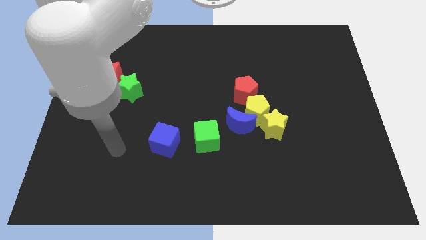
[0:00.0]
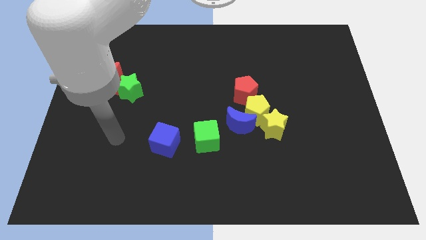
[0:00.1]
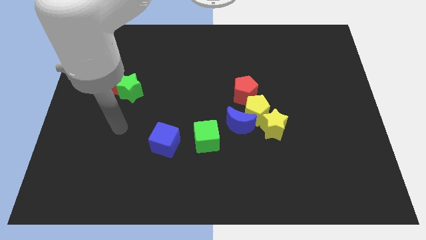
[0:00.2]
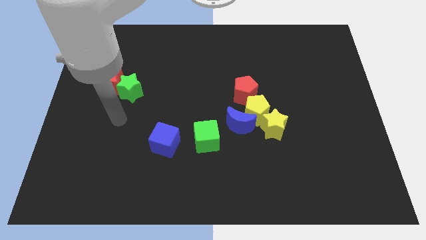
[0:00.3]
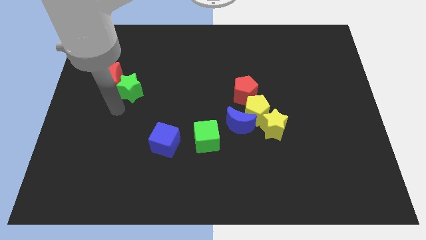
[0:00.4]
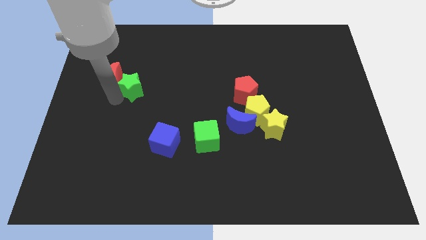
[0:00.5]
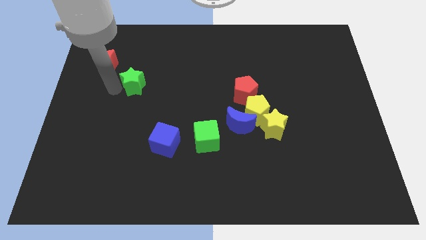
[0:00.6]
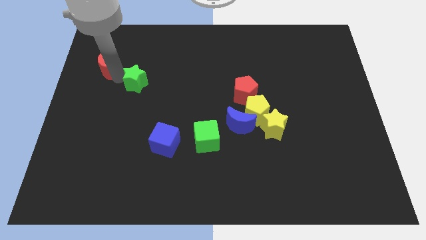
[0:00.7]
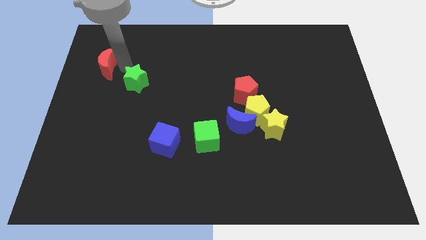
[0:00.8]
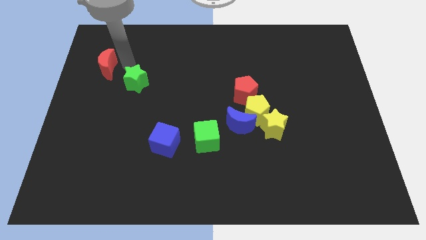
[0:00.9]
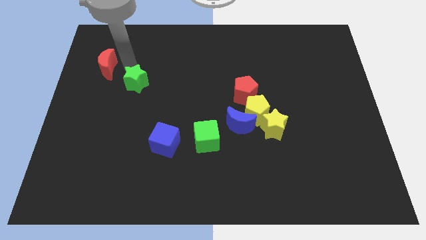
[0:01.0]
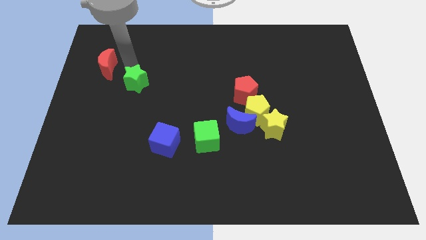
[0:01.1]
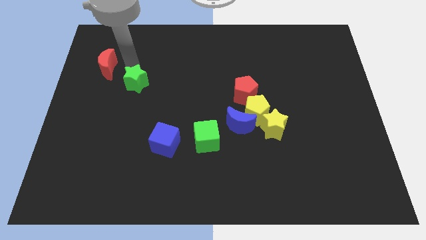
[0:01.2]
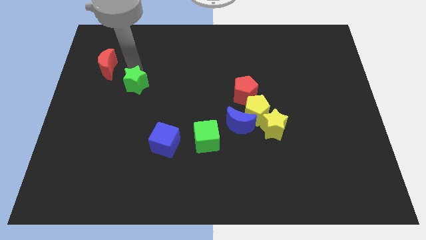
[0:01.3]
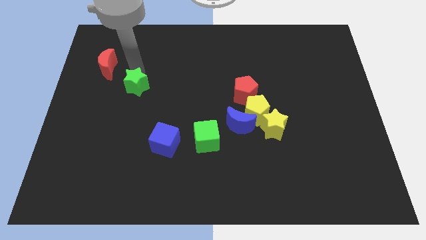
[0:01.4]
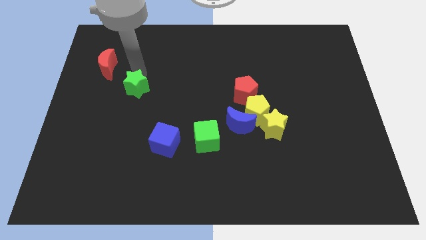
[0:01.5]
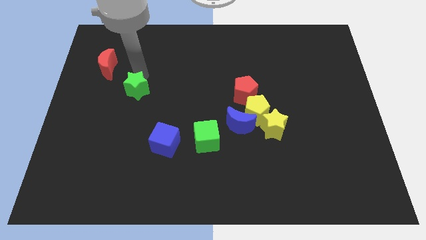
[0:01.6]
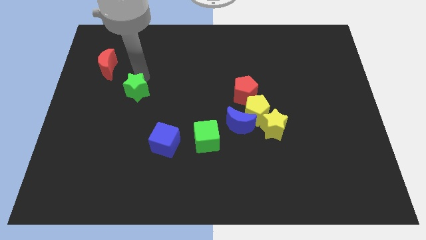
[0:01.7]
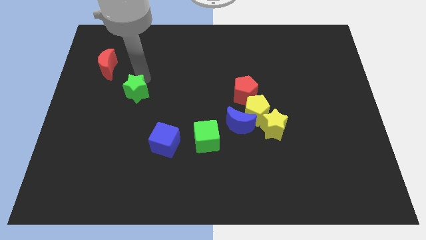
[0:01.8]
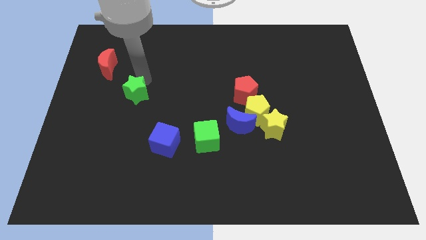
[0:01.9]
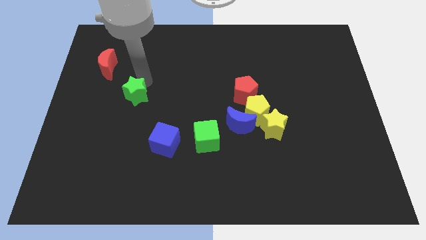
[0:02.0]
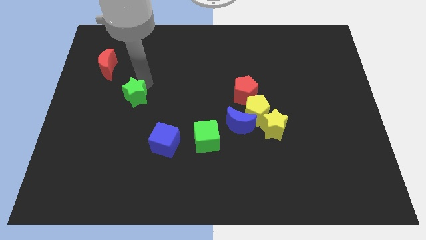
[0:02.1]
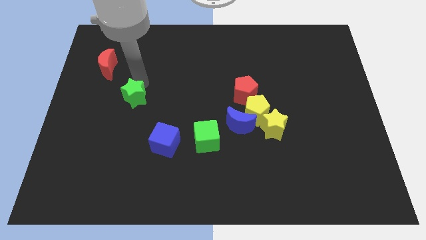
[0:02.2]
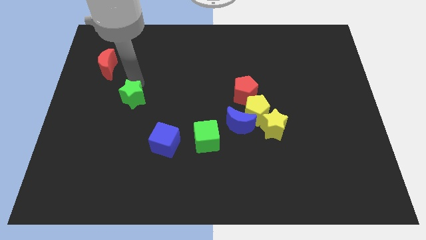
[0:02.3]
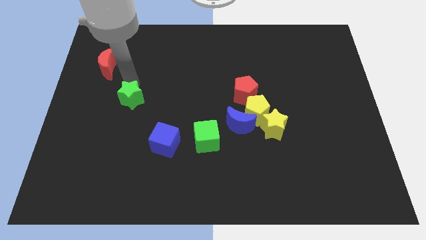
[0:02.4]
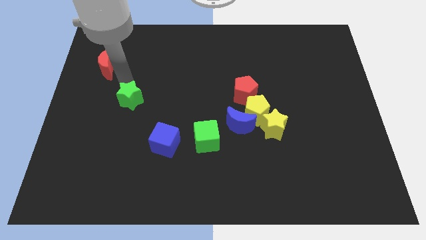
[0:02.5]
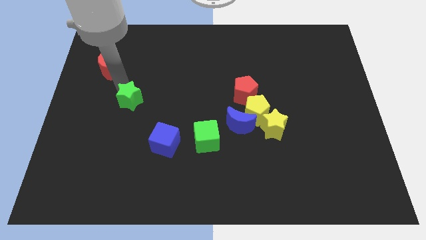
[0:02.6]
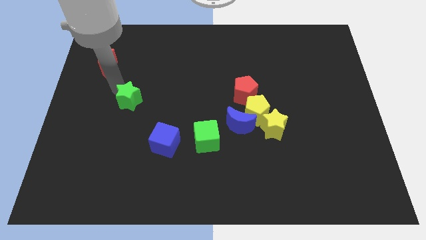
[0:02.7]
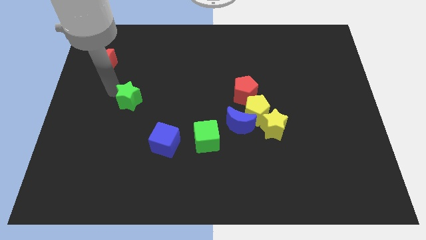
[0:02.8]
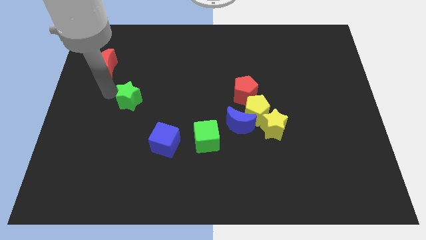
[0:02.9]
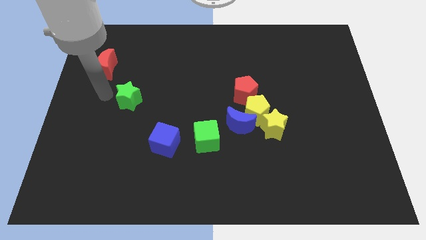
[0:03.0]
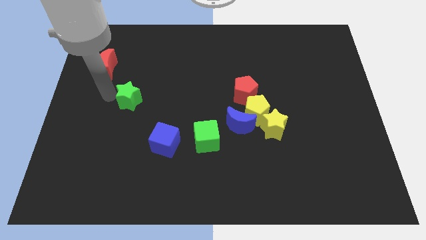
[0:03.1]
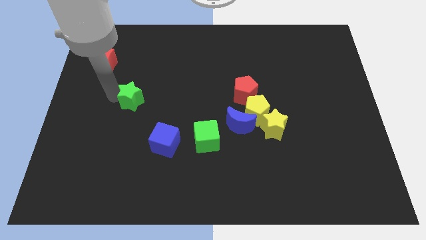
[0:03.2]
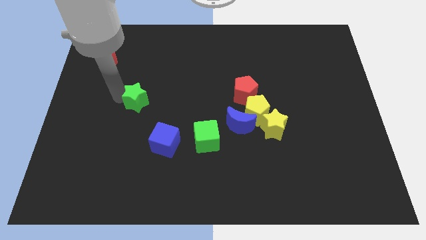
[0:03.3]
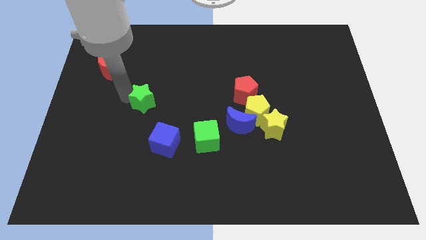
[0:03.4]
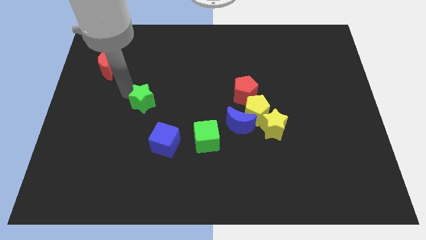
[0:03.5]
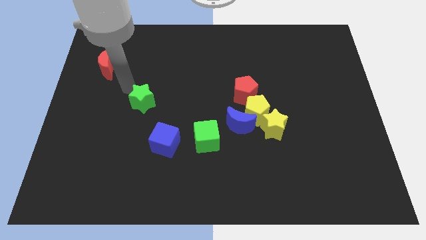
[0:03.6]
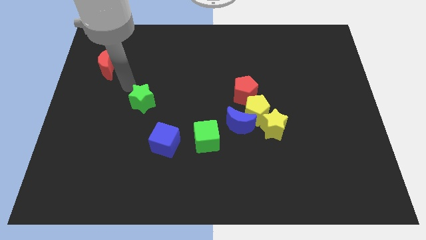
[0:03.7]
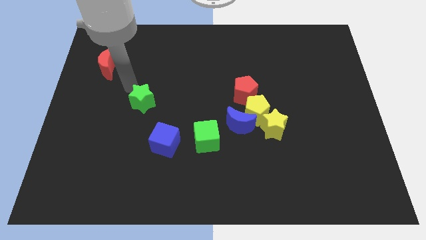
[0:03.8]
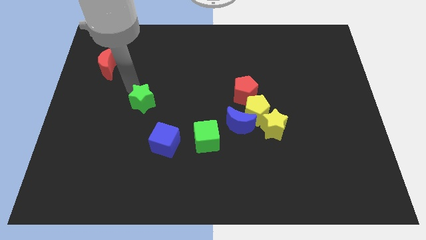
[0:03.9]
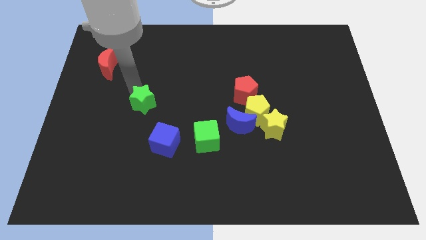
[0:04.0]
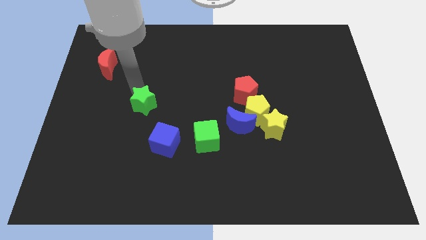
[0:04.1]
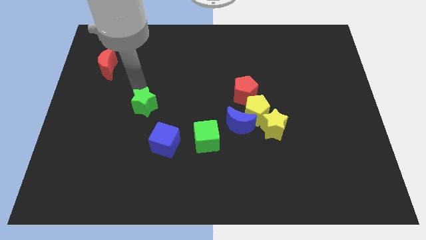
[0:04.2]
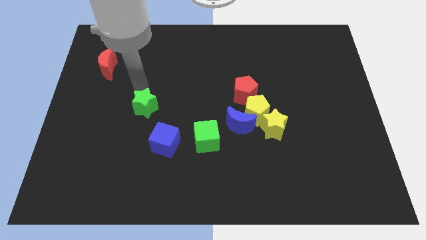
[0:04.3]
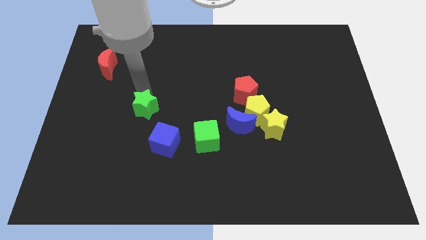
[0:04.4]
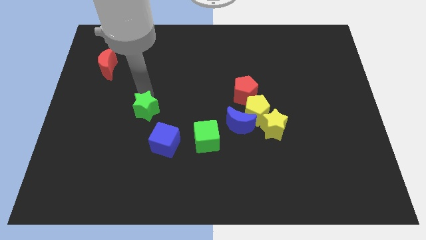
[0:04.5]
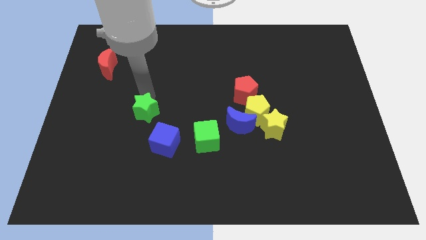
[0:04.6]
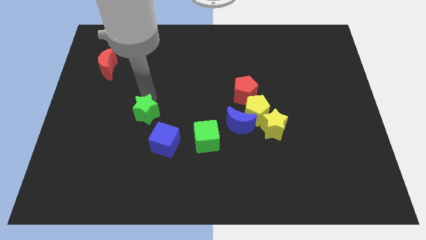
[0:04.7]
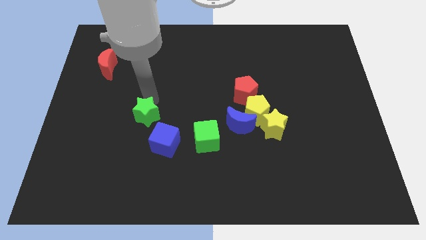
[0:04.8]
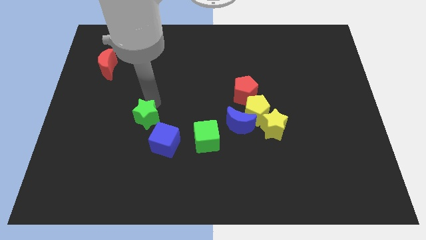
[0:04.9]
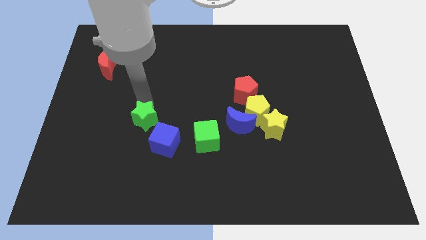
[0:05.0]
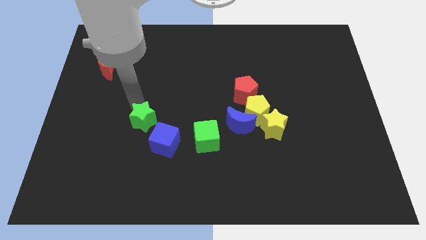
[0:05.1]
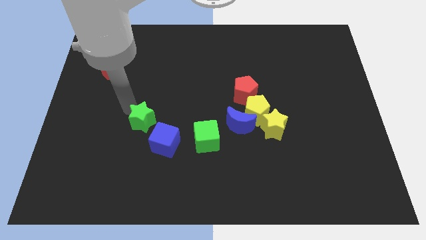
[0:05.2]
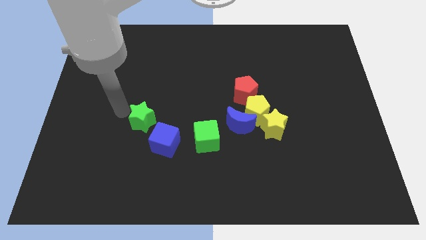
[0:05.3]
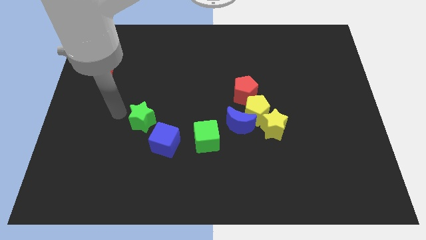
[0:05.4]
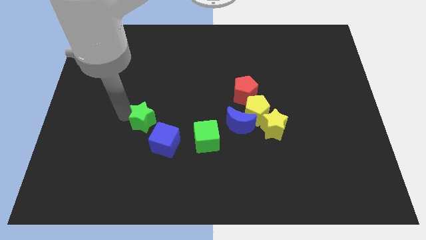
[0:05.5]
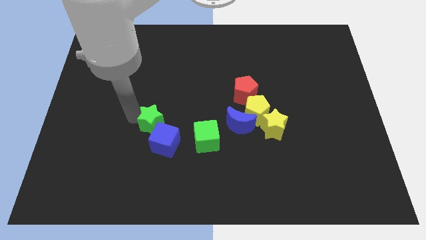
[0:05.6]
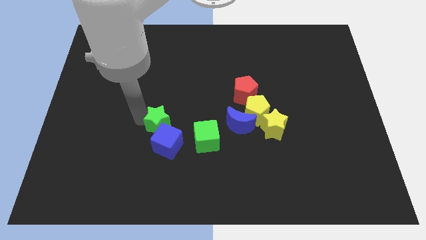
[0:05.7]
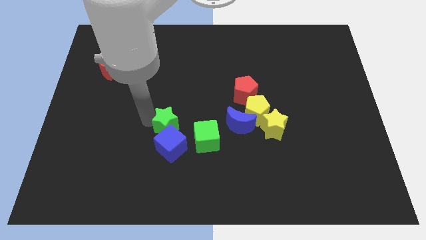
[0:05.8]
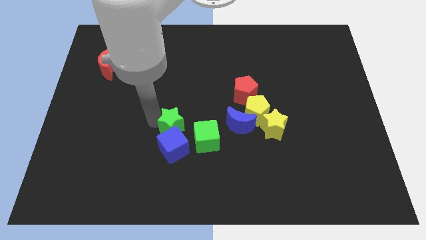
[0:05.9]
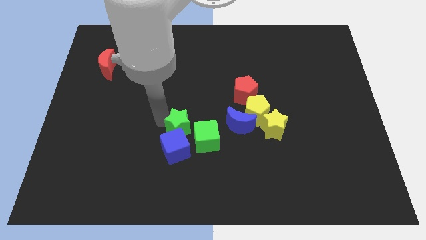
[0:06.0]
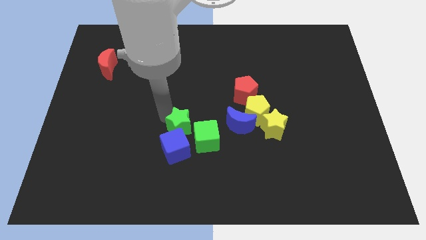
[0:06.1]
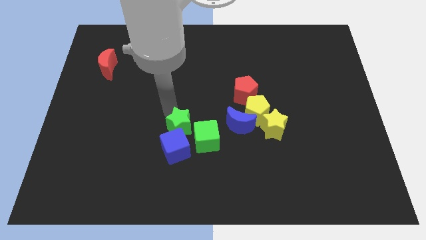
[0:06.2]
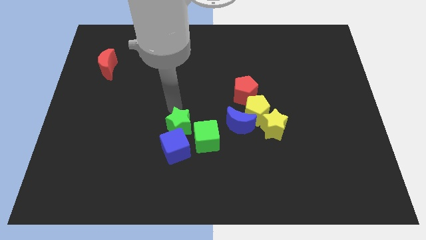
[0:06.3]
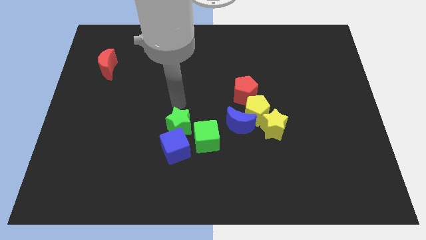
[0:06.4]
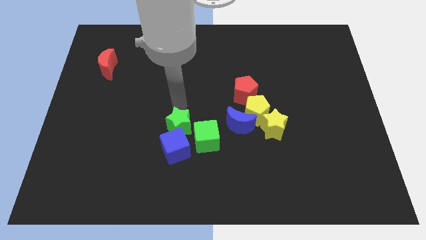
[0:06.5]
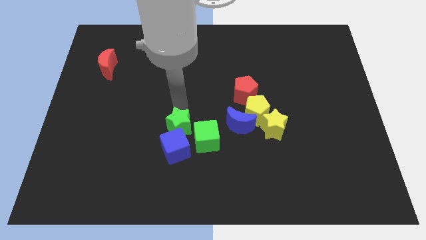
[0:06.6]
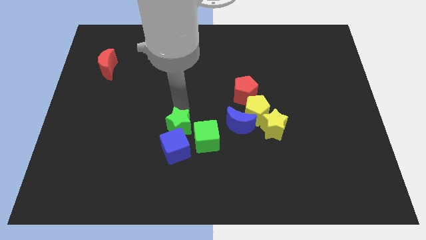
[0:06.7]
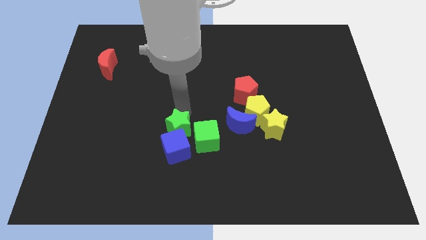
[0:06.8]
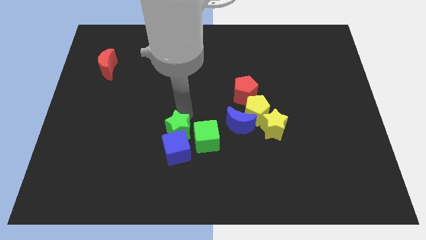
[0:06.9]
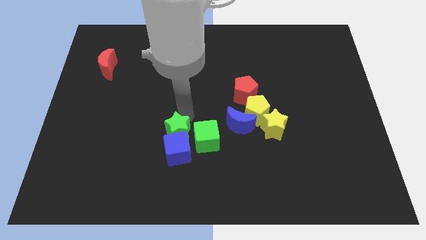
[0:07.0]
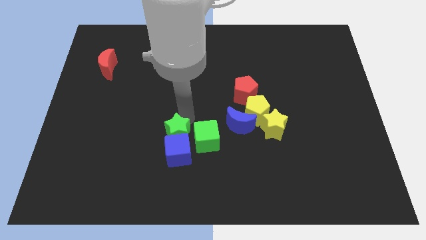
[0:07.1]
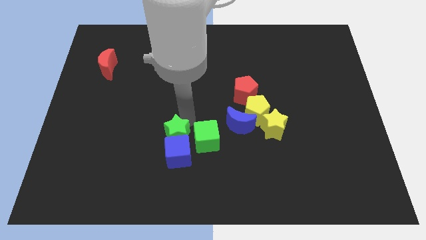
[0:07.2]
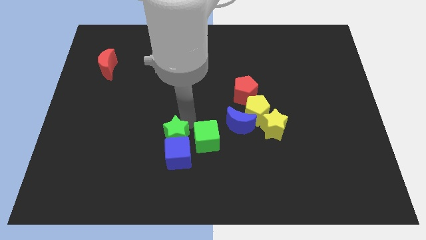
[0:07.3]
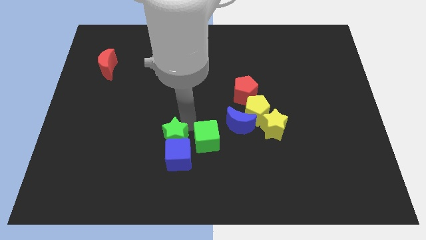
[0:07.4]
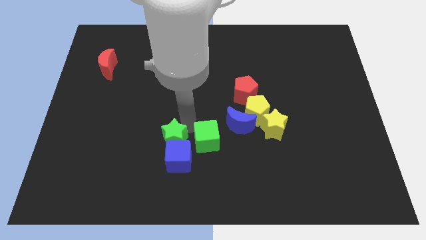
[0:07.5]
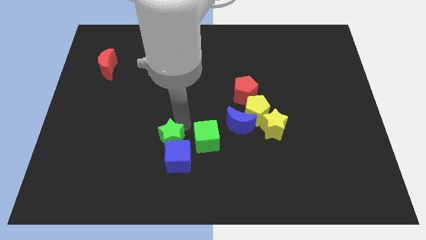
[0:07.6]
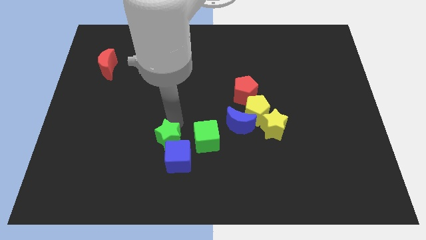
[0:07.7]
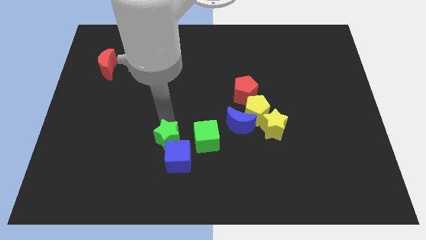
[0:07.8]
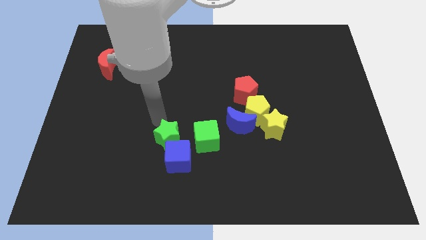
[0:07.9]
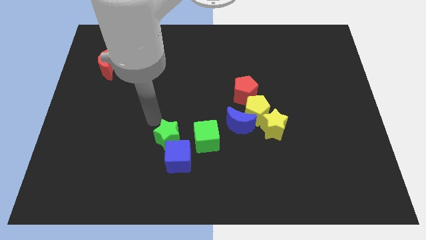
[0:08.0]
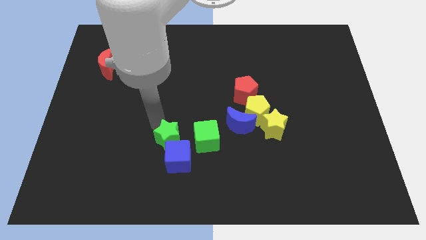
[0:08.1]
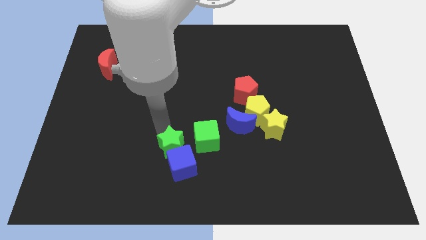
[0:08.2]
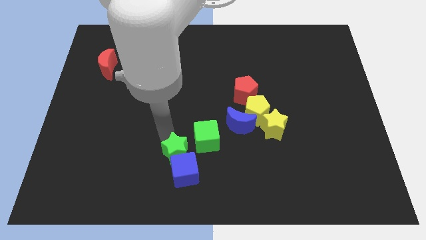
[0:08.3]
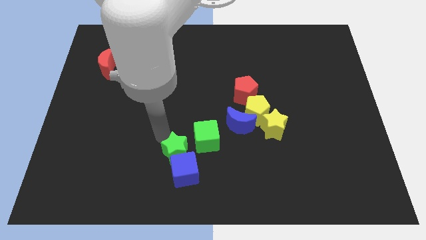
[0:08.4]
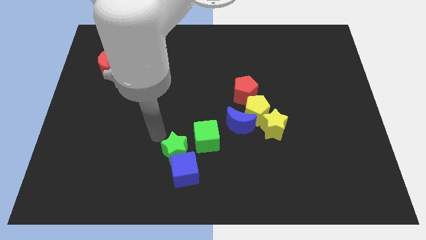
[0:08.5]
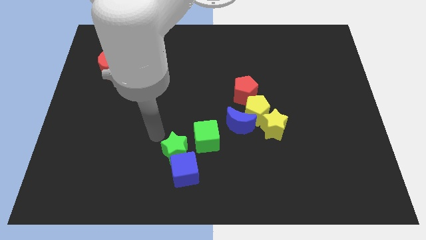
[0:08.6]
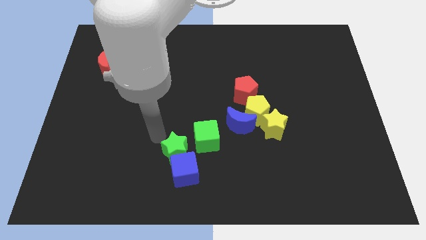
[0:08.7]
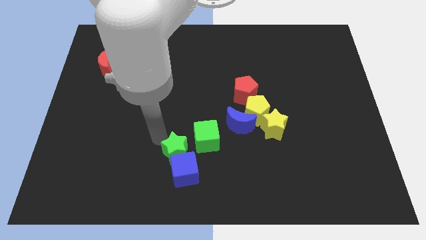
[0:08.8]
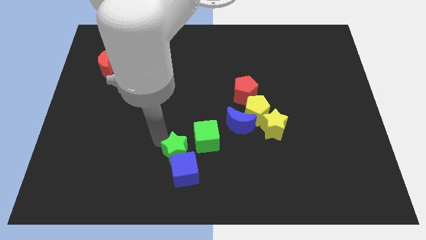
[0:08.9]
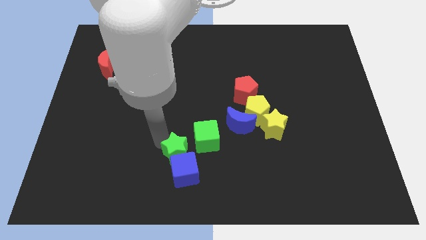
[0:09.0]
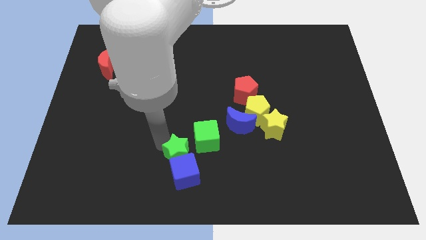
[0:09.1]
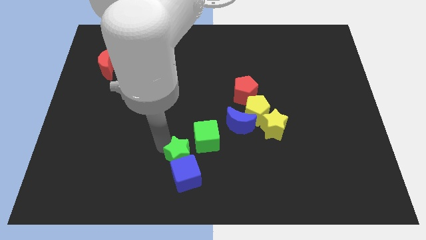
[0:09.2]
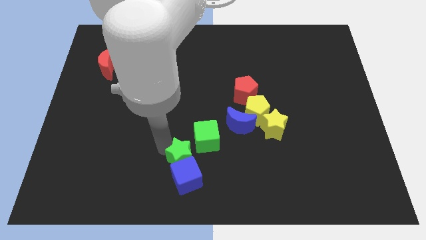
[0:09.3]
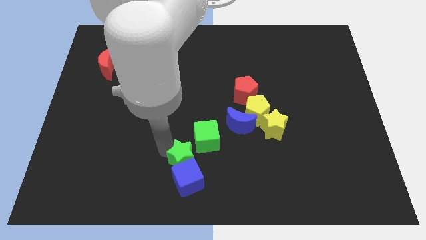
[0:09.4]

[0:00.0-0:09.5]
move the green star to the bottom side of the green cube
